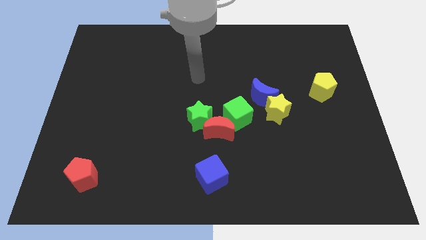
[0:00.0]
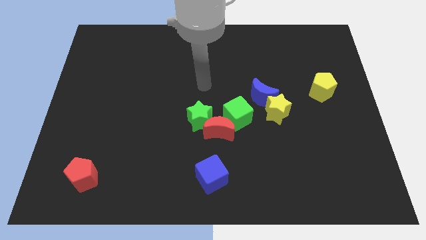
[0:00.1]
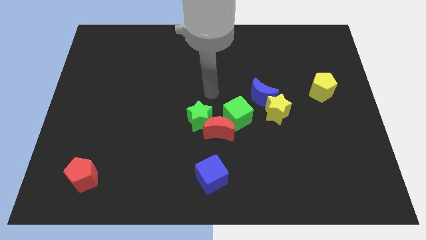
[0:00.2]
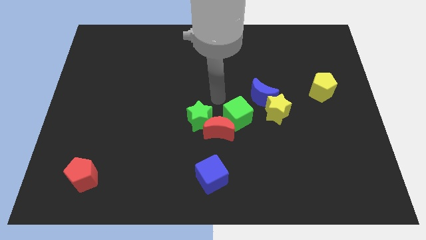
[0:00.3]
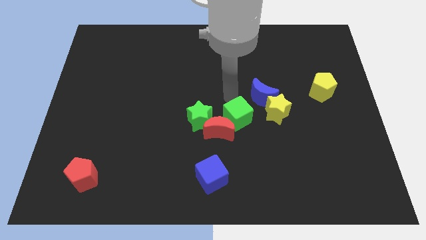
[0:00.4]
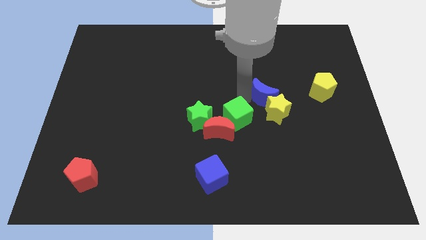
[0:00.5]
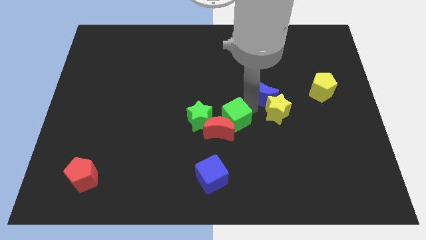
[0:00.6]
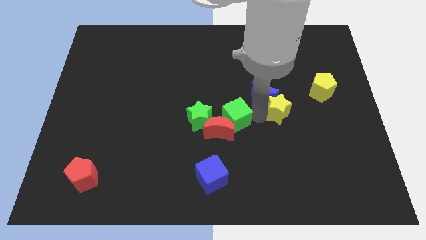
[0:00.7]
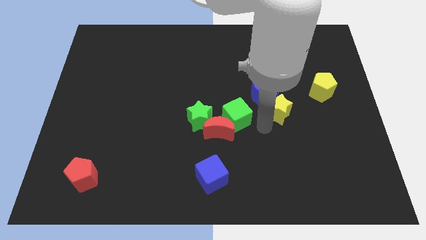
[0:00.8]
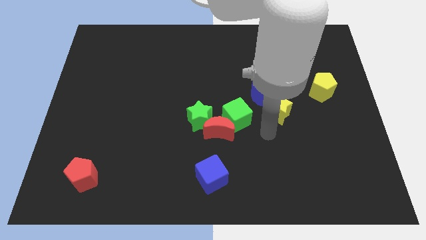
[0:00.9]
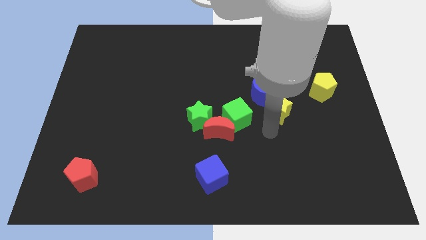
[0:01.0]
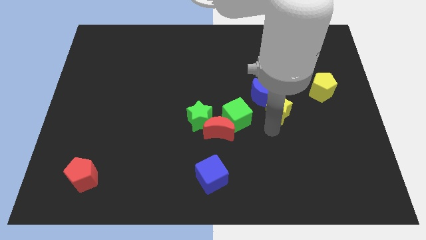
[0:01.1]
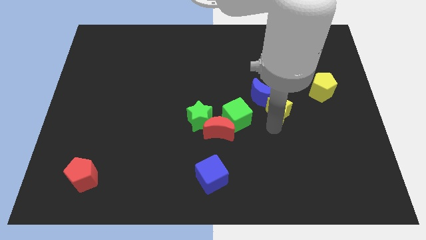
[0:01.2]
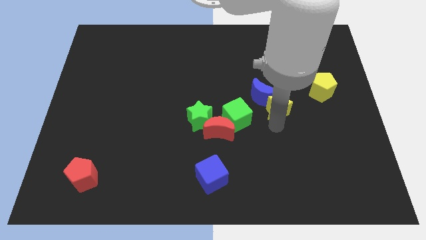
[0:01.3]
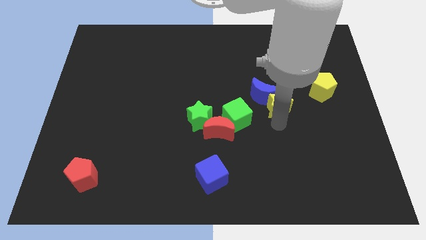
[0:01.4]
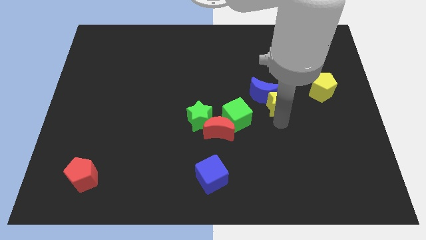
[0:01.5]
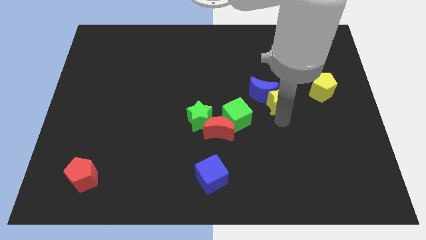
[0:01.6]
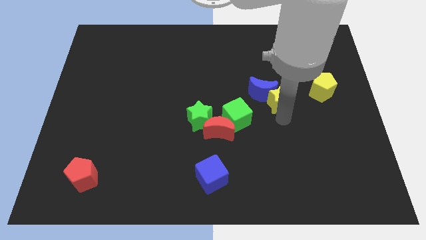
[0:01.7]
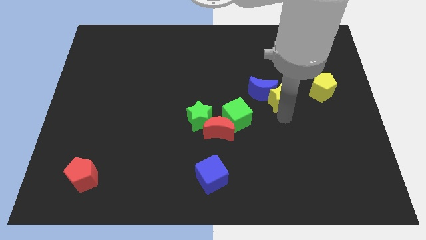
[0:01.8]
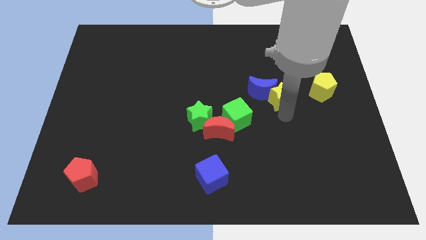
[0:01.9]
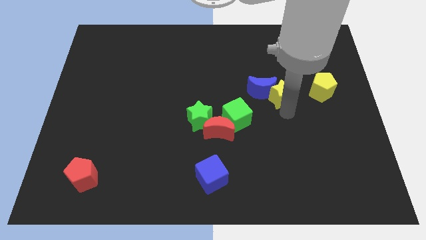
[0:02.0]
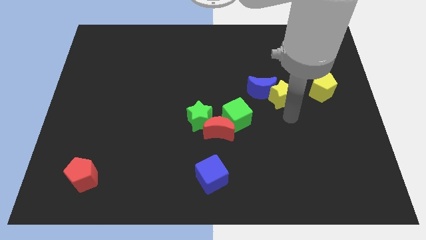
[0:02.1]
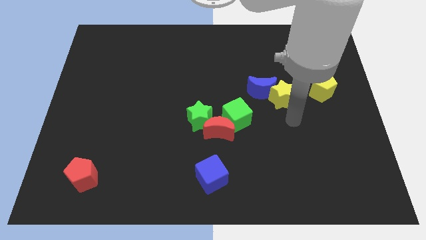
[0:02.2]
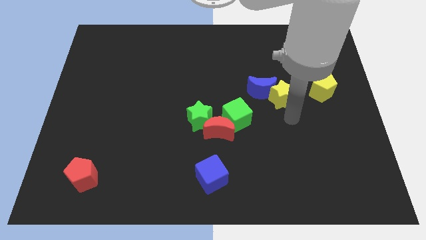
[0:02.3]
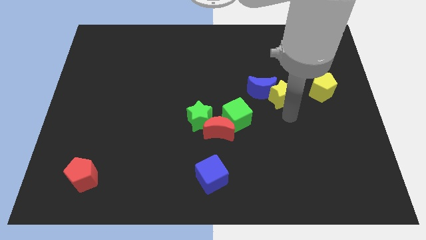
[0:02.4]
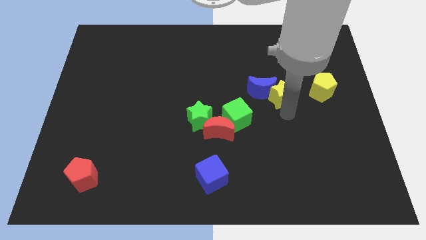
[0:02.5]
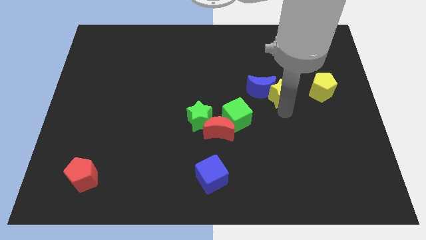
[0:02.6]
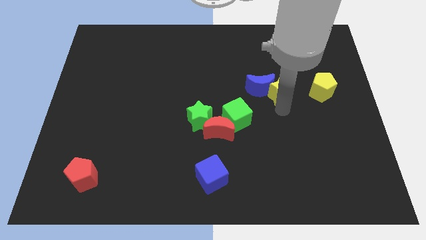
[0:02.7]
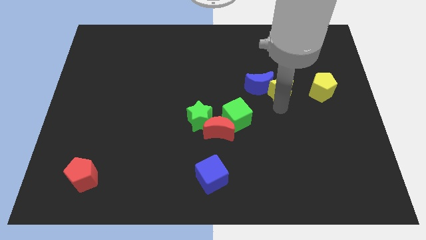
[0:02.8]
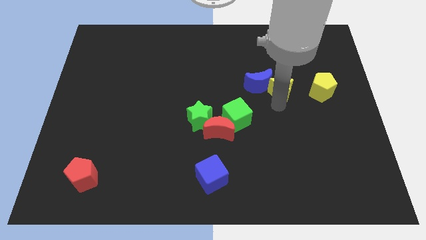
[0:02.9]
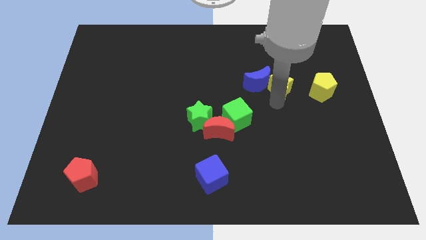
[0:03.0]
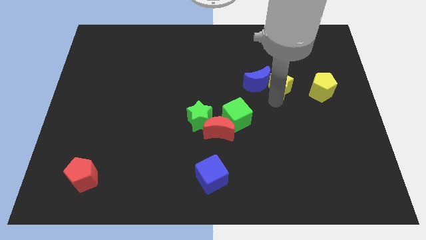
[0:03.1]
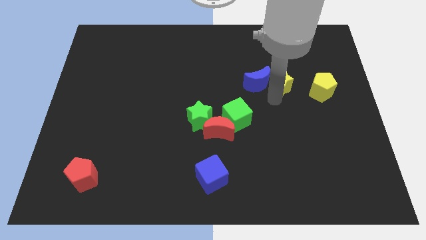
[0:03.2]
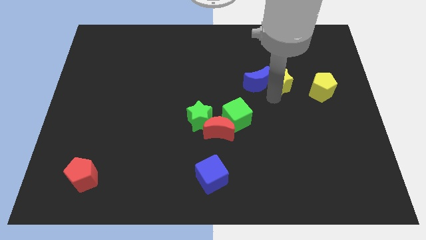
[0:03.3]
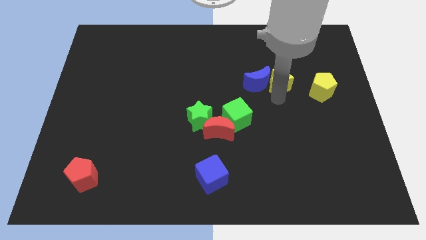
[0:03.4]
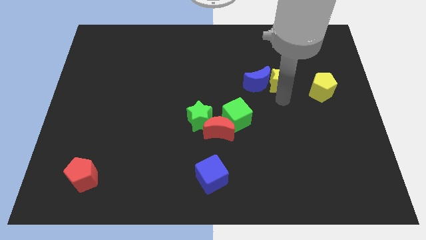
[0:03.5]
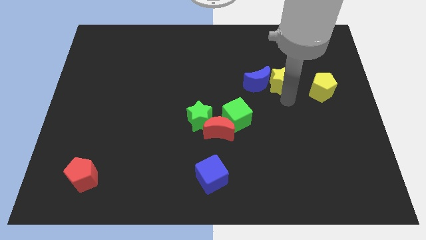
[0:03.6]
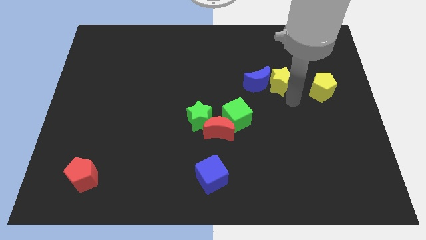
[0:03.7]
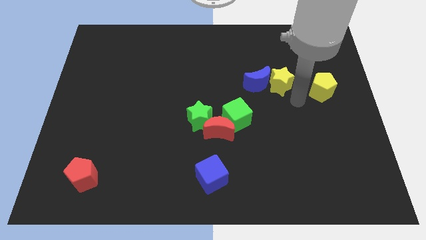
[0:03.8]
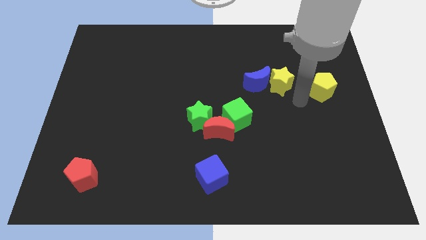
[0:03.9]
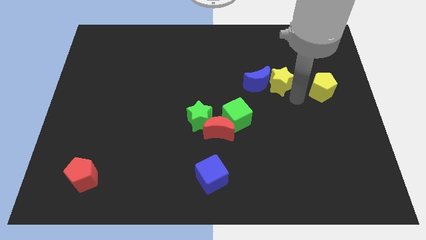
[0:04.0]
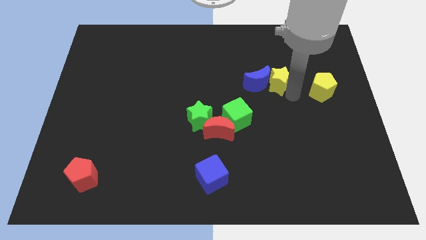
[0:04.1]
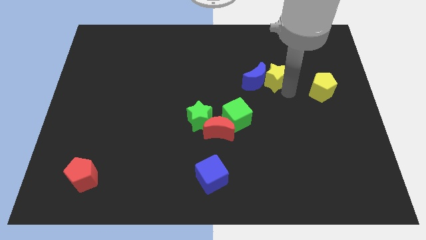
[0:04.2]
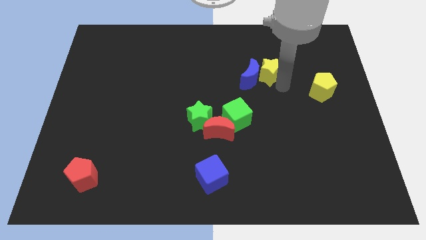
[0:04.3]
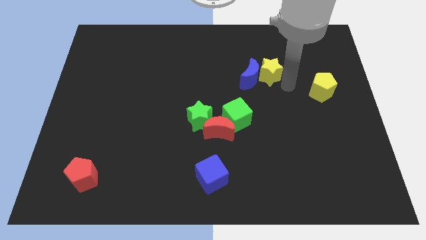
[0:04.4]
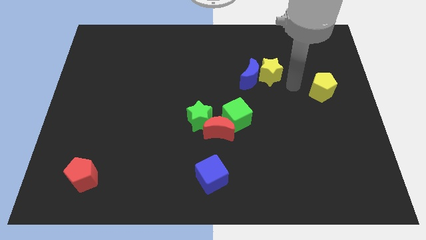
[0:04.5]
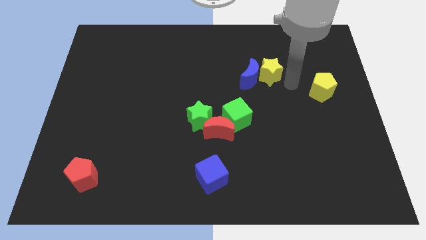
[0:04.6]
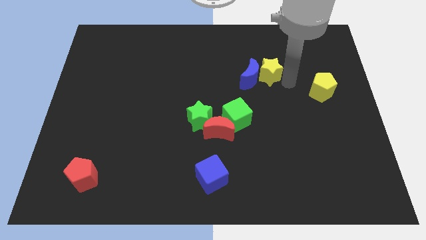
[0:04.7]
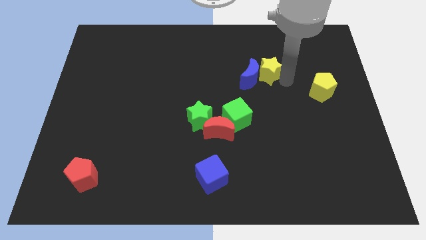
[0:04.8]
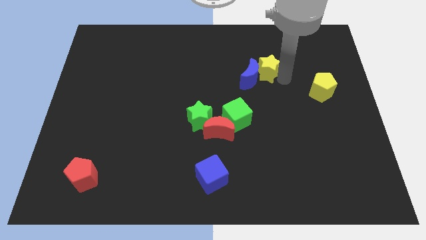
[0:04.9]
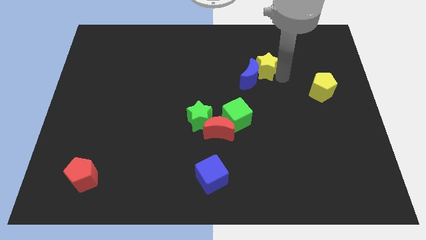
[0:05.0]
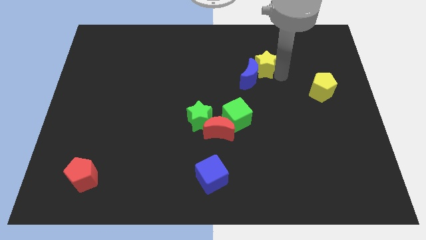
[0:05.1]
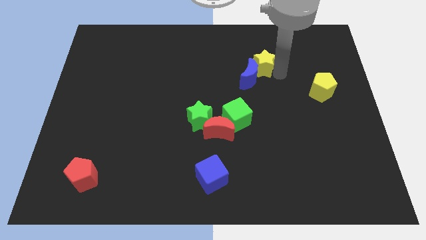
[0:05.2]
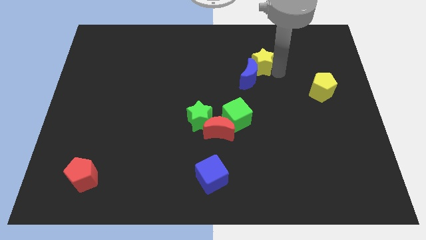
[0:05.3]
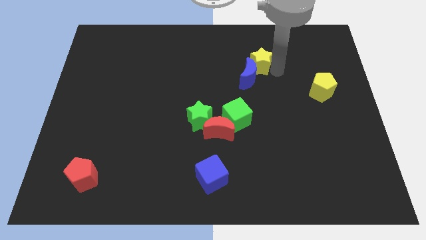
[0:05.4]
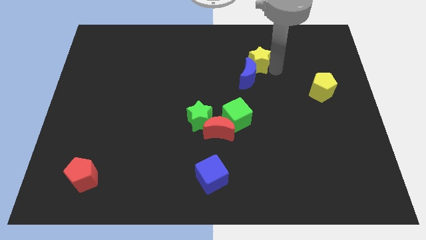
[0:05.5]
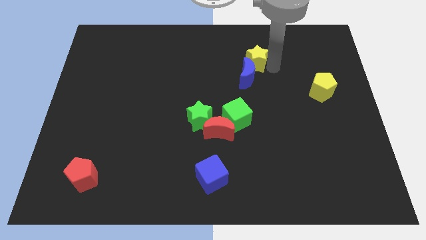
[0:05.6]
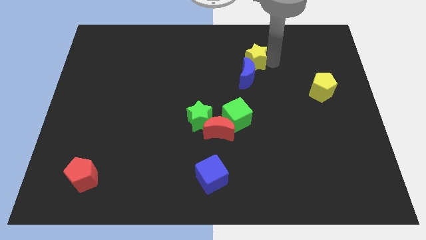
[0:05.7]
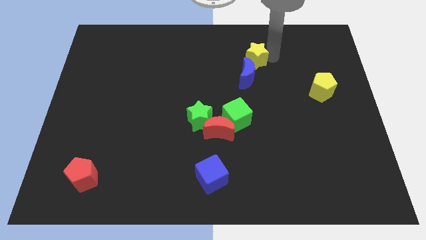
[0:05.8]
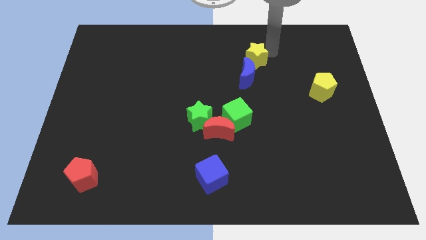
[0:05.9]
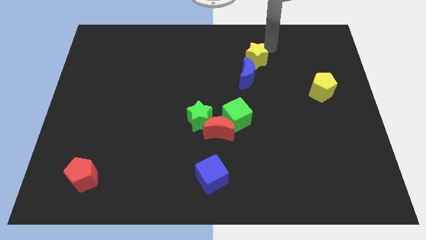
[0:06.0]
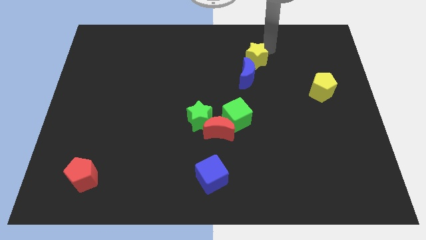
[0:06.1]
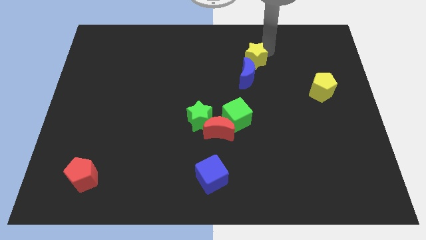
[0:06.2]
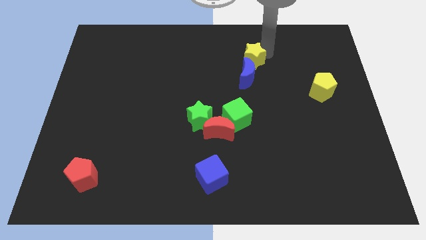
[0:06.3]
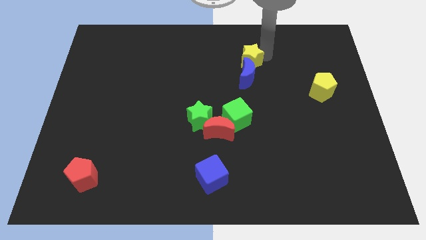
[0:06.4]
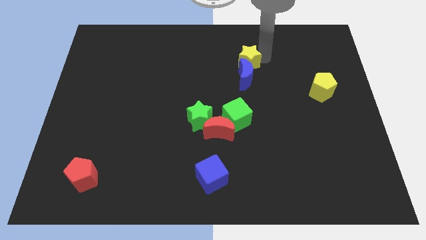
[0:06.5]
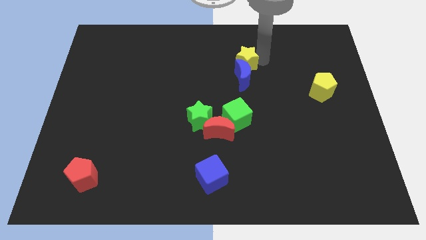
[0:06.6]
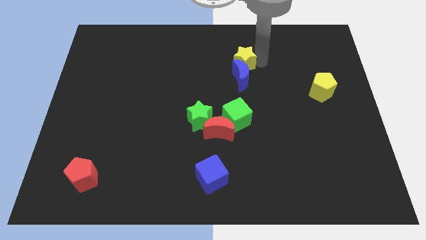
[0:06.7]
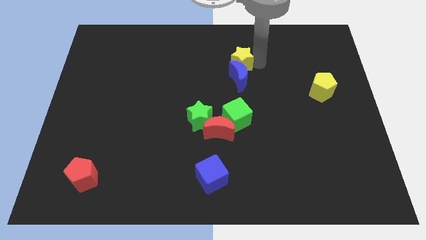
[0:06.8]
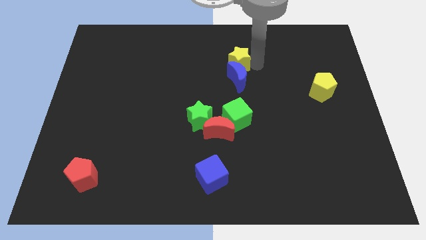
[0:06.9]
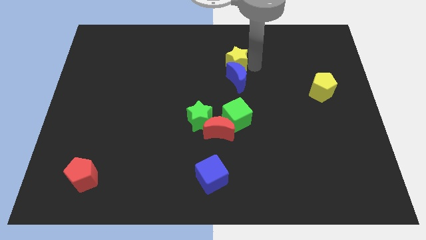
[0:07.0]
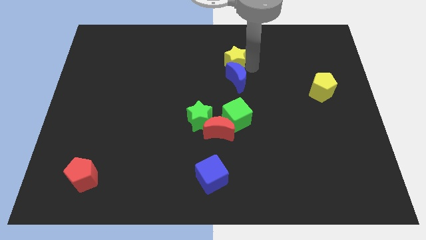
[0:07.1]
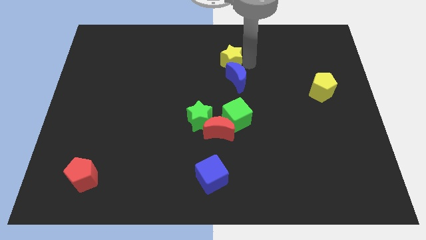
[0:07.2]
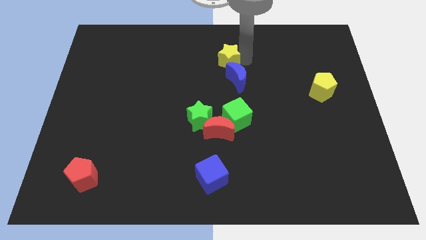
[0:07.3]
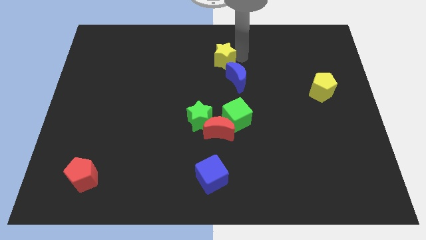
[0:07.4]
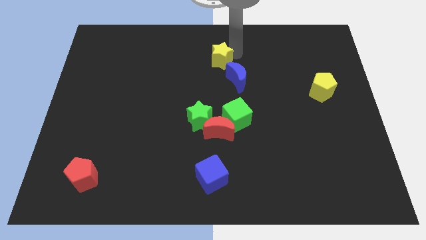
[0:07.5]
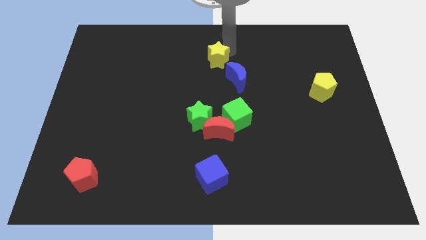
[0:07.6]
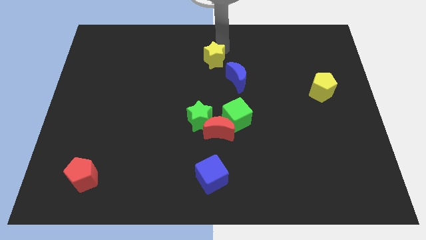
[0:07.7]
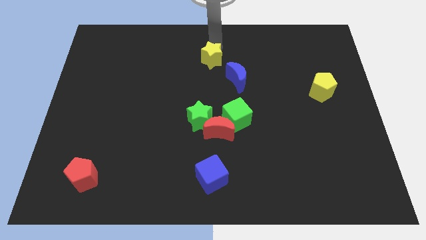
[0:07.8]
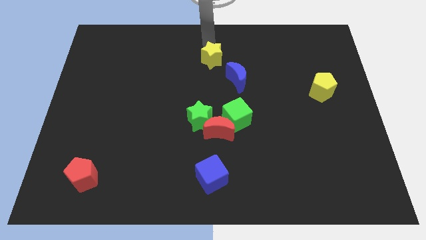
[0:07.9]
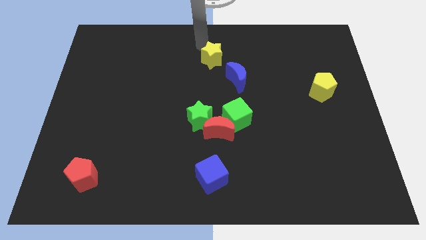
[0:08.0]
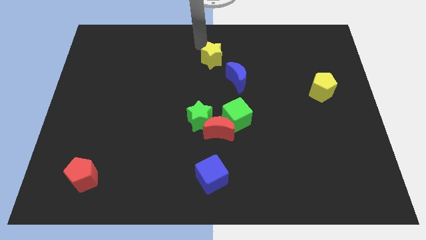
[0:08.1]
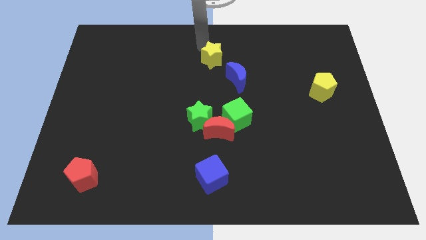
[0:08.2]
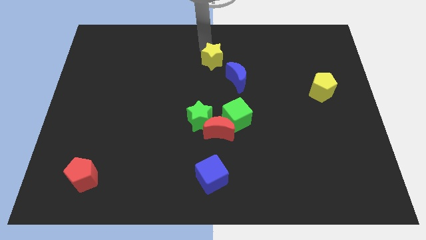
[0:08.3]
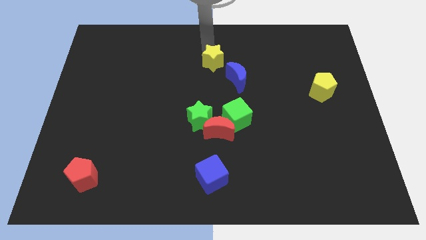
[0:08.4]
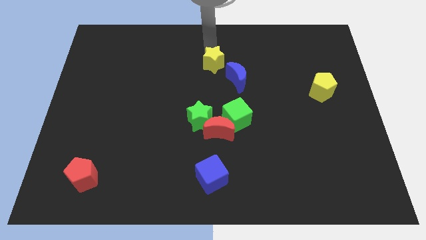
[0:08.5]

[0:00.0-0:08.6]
push the yellow star to the center of the board
